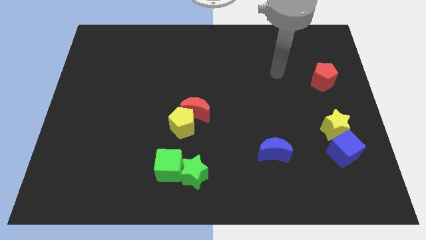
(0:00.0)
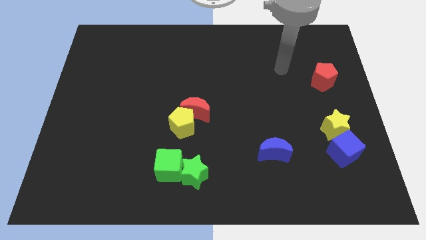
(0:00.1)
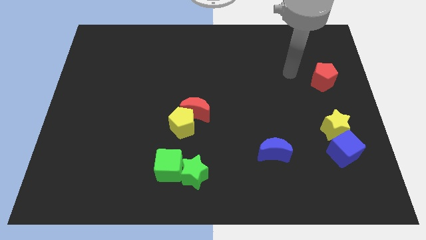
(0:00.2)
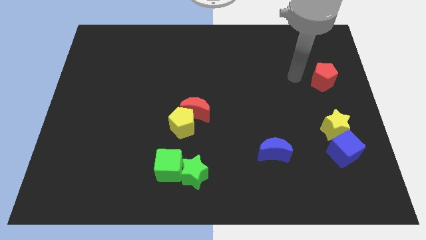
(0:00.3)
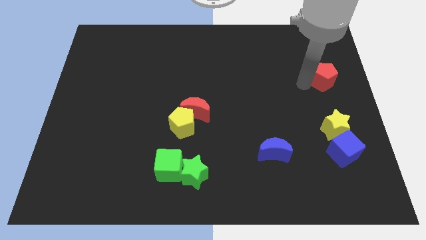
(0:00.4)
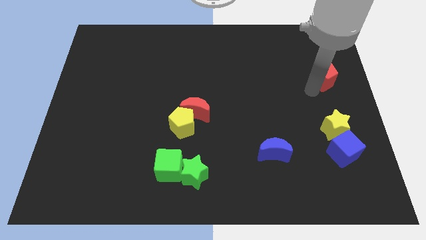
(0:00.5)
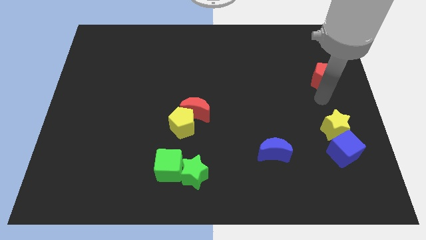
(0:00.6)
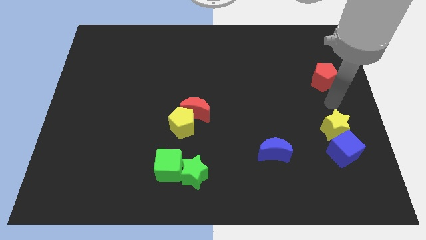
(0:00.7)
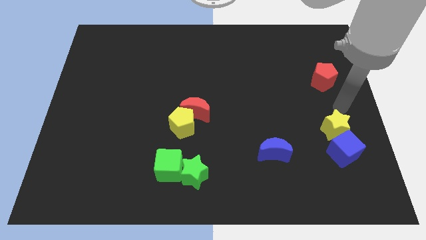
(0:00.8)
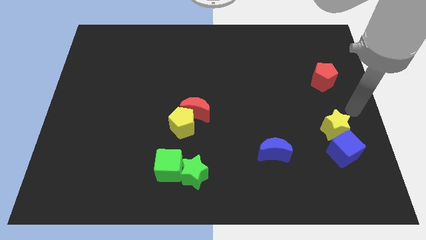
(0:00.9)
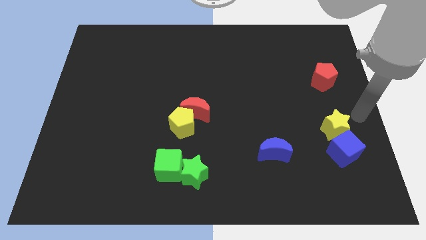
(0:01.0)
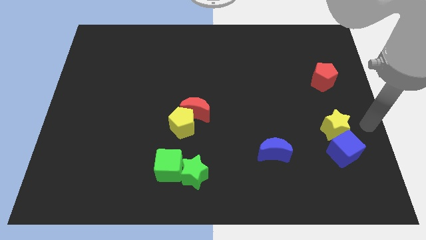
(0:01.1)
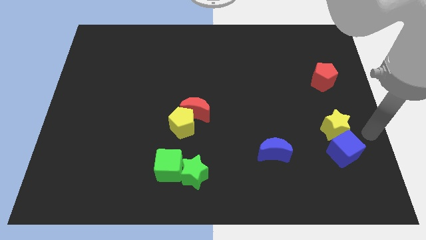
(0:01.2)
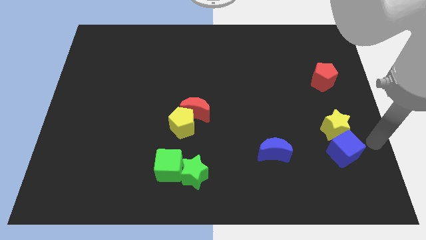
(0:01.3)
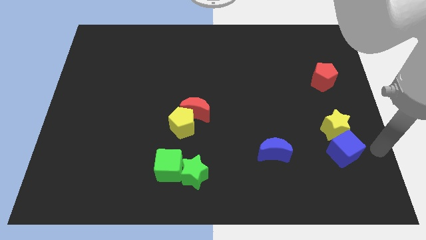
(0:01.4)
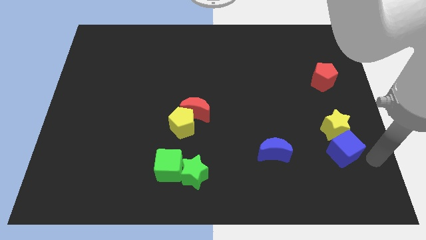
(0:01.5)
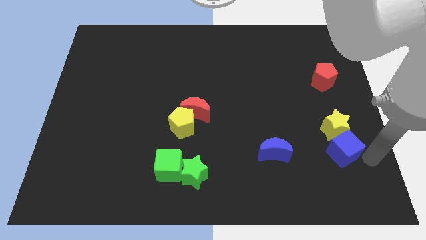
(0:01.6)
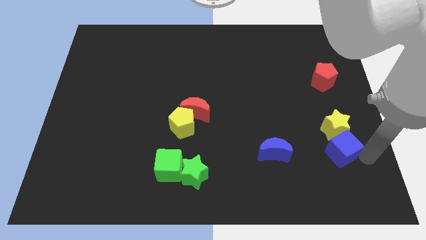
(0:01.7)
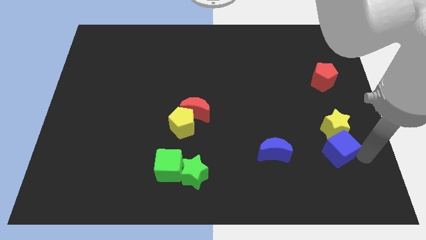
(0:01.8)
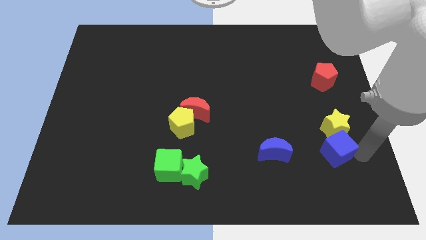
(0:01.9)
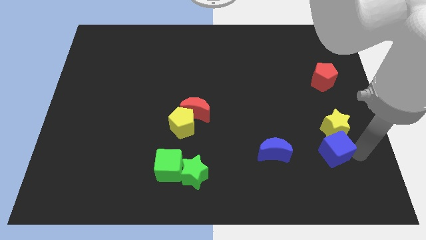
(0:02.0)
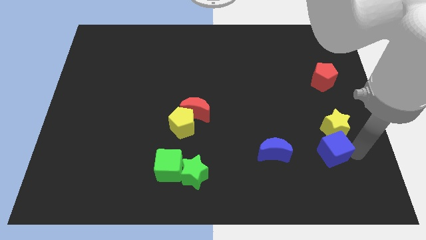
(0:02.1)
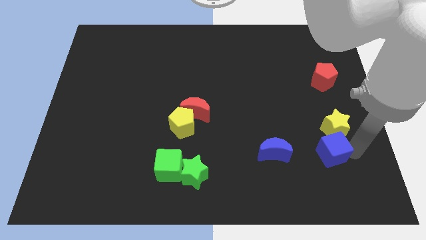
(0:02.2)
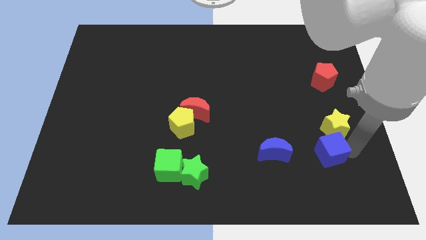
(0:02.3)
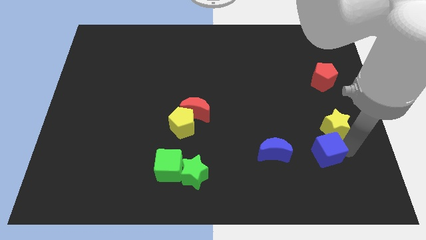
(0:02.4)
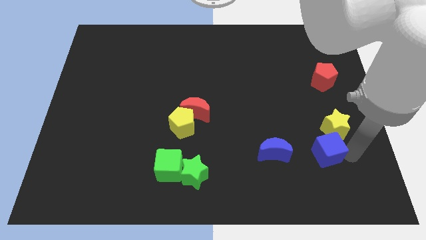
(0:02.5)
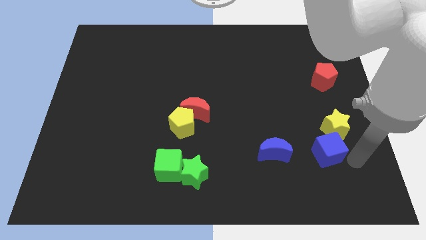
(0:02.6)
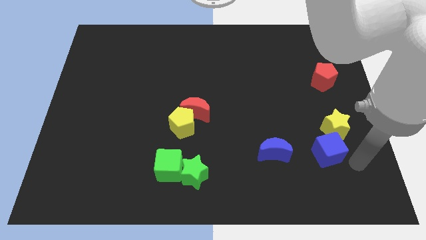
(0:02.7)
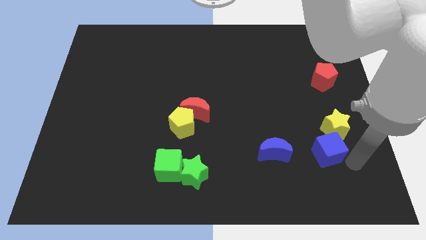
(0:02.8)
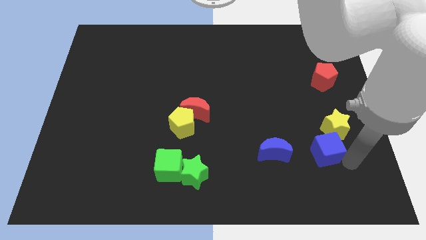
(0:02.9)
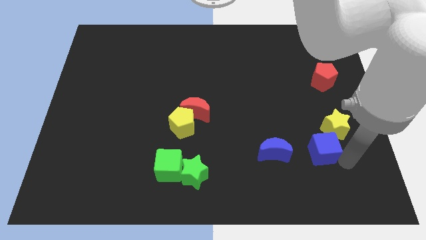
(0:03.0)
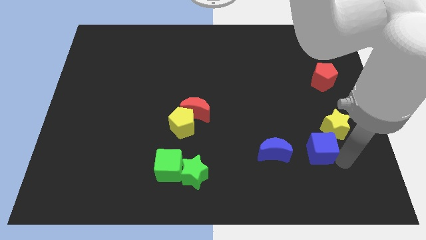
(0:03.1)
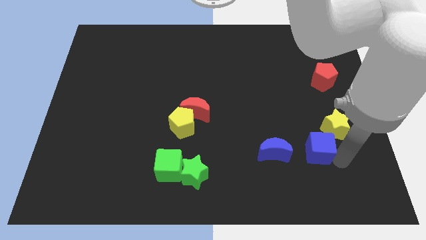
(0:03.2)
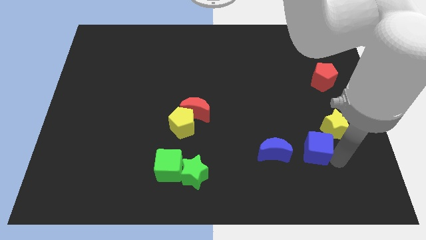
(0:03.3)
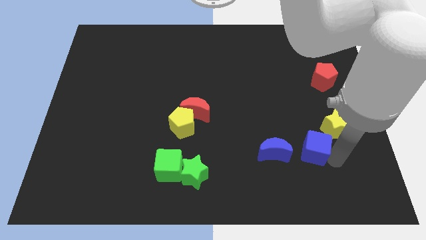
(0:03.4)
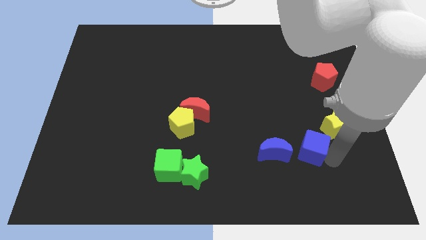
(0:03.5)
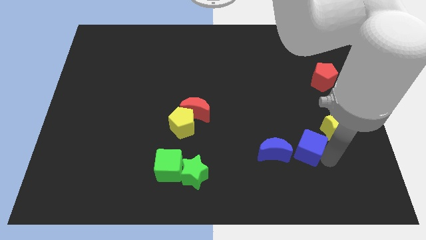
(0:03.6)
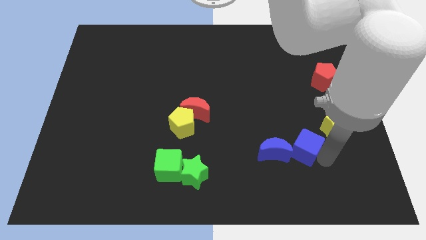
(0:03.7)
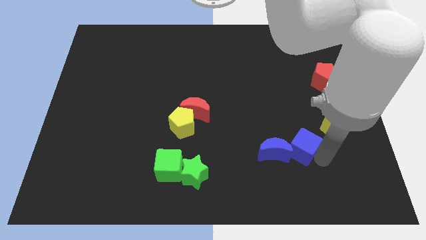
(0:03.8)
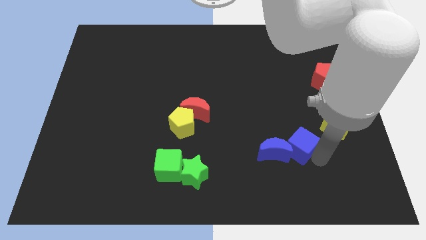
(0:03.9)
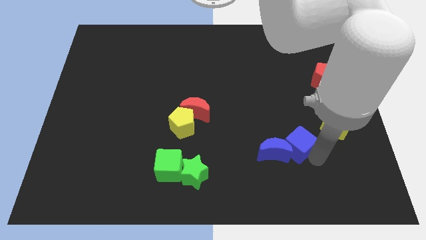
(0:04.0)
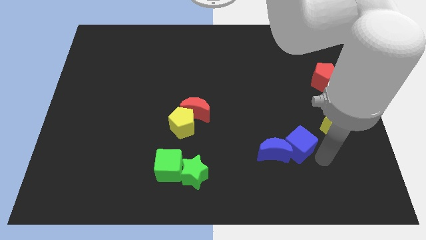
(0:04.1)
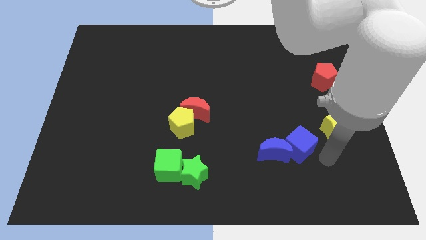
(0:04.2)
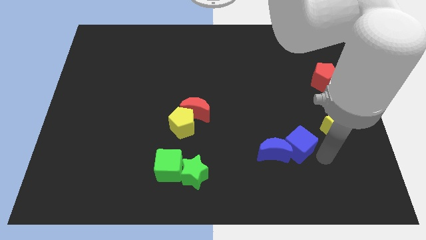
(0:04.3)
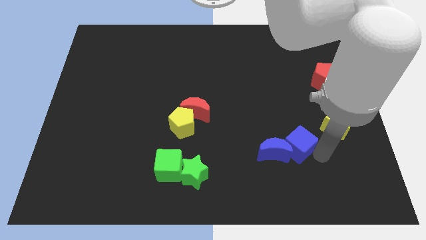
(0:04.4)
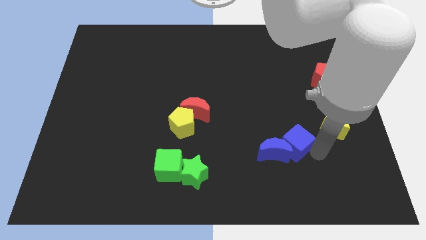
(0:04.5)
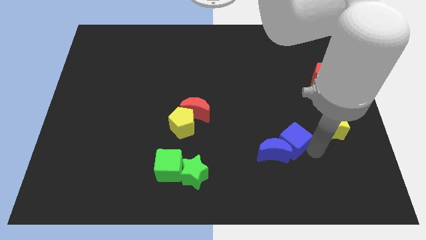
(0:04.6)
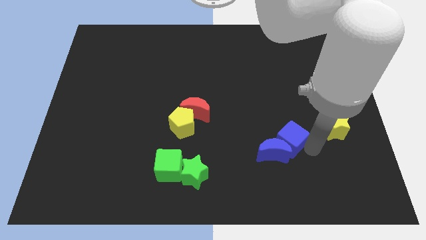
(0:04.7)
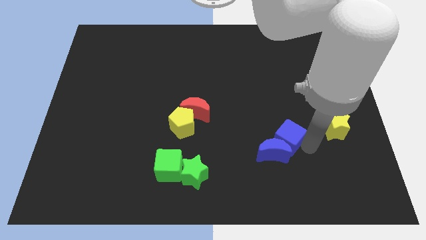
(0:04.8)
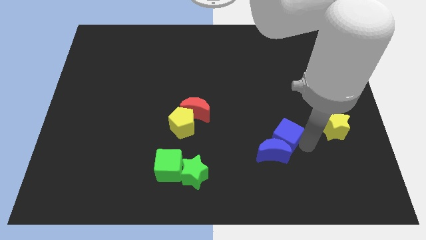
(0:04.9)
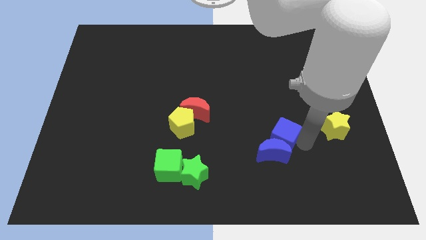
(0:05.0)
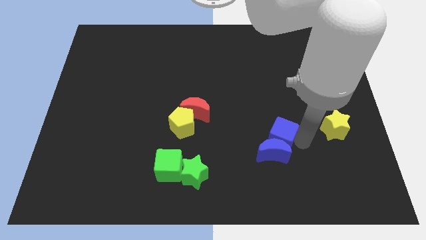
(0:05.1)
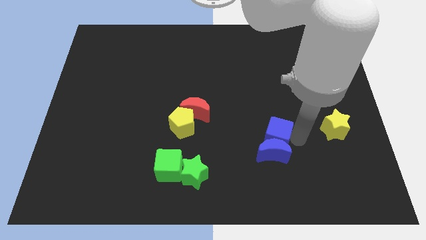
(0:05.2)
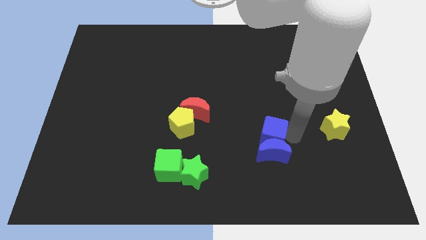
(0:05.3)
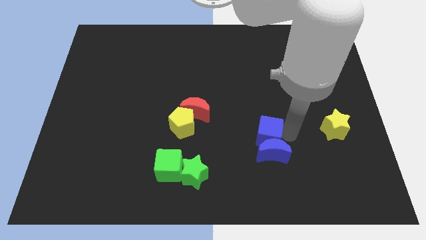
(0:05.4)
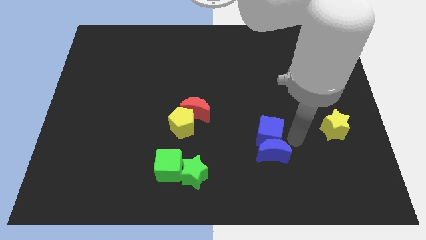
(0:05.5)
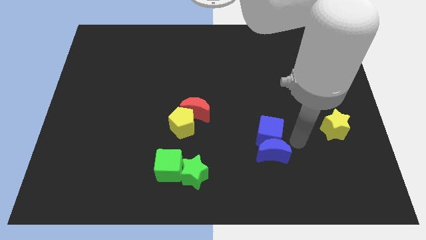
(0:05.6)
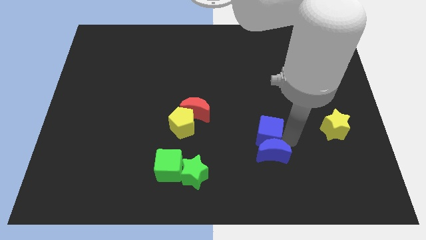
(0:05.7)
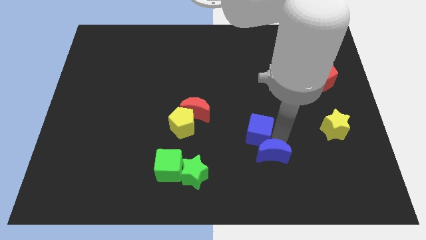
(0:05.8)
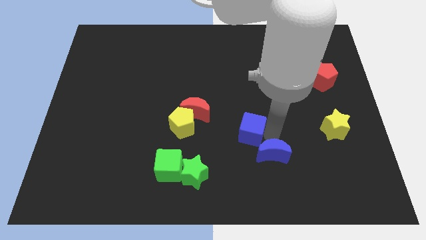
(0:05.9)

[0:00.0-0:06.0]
slide the blue cube to the right side of the yellow pentagon
